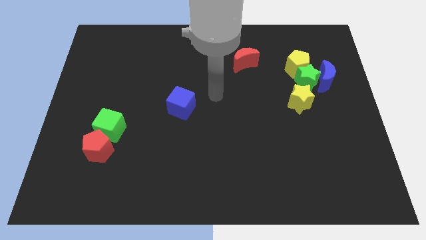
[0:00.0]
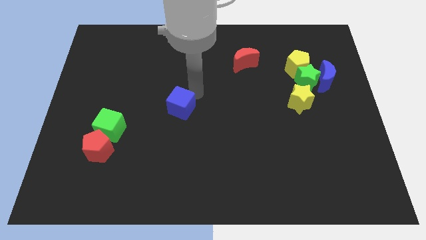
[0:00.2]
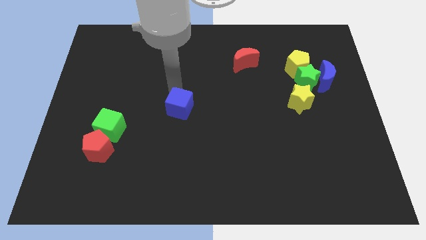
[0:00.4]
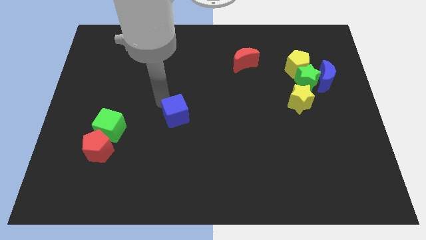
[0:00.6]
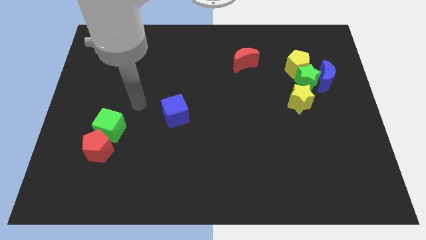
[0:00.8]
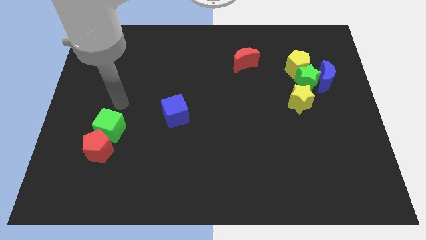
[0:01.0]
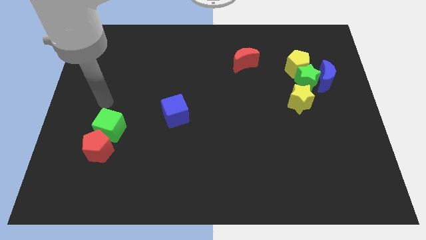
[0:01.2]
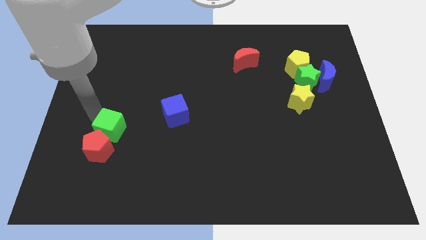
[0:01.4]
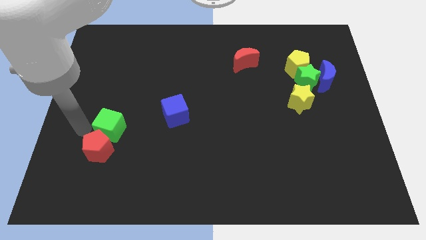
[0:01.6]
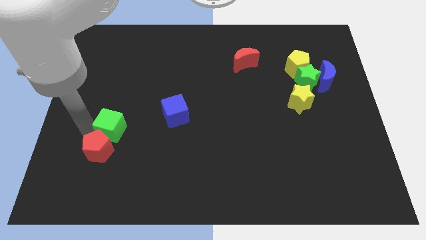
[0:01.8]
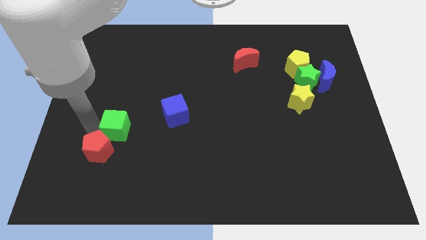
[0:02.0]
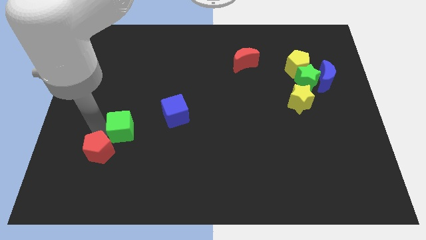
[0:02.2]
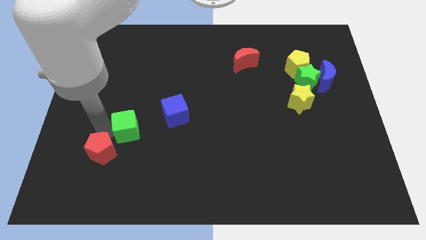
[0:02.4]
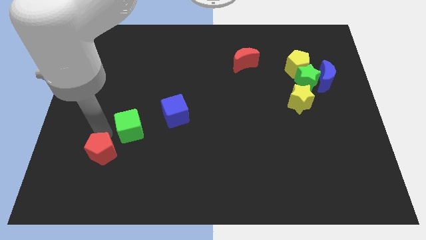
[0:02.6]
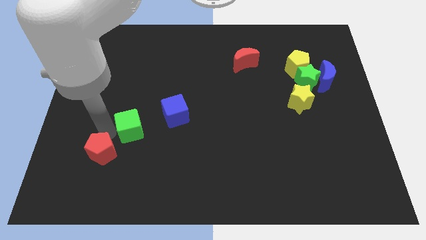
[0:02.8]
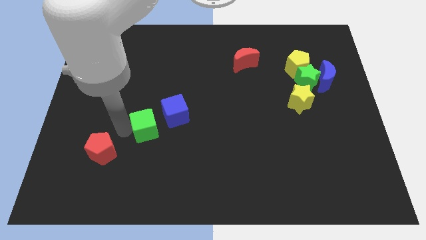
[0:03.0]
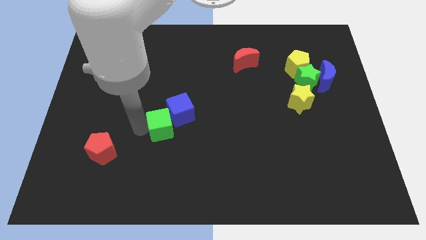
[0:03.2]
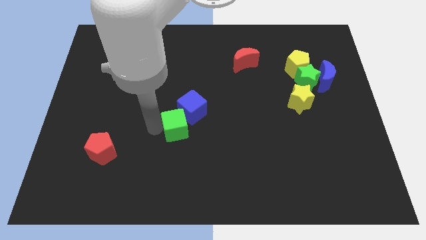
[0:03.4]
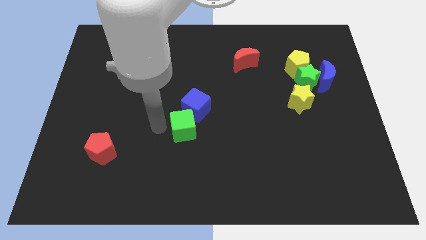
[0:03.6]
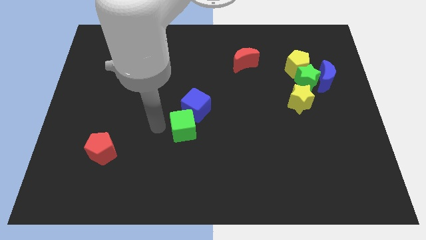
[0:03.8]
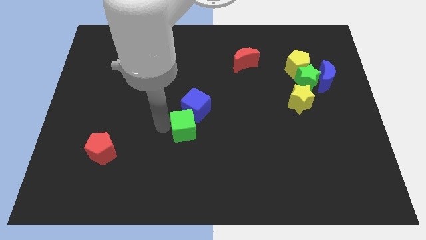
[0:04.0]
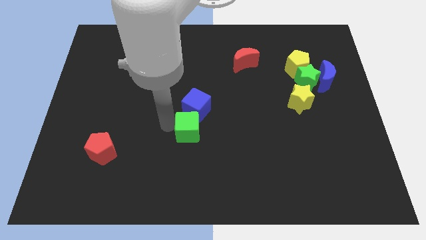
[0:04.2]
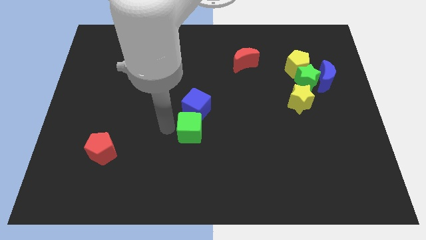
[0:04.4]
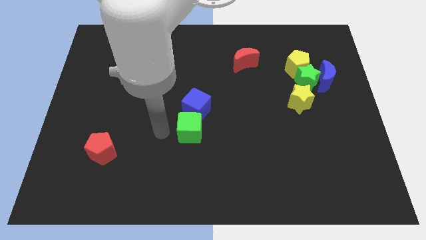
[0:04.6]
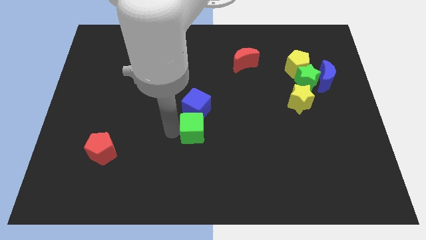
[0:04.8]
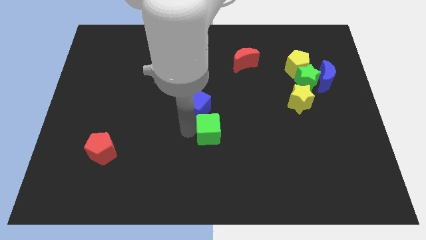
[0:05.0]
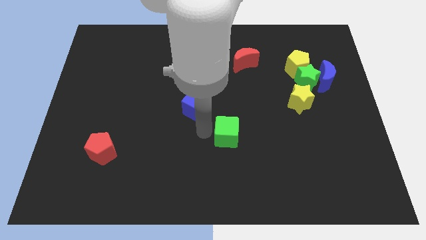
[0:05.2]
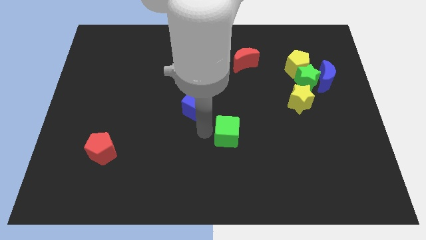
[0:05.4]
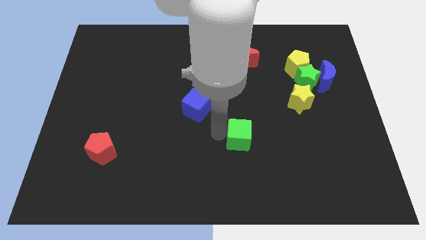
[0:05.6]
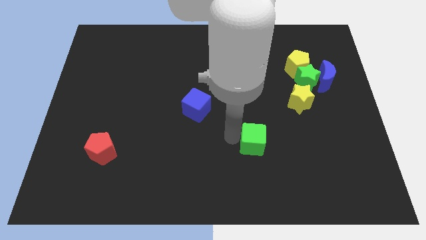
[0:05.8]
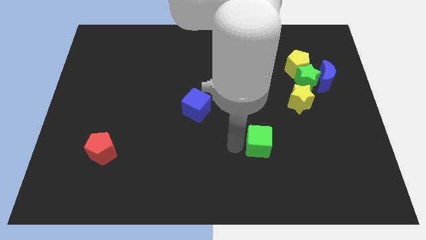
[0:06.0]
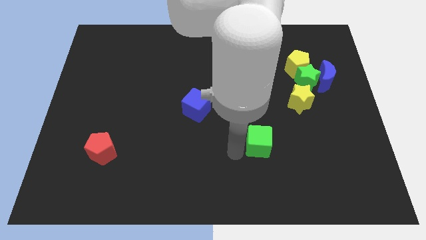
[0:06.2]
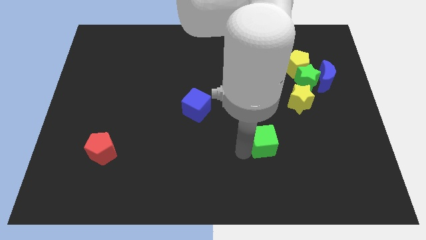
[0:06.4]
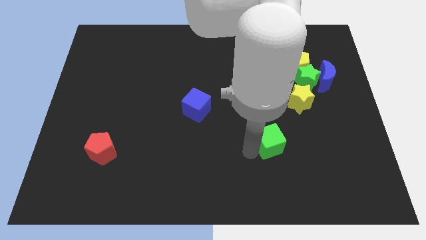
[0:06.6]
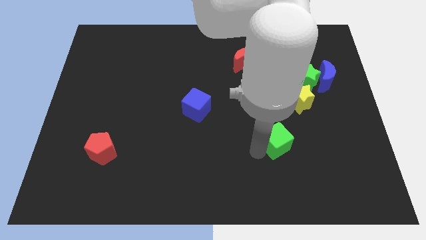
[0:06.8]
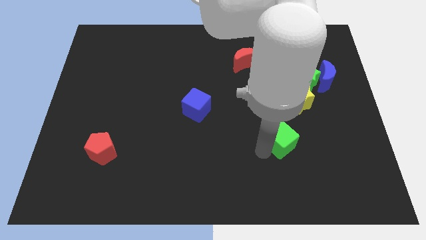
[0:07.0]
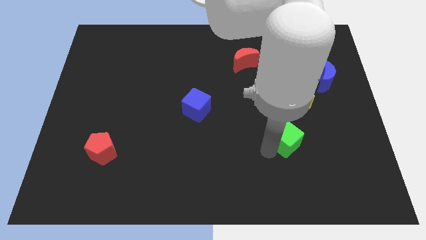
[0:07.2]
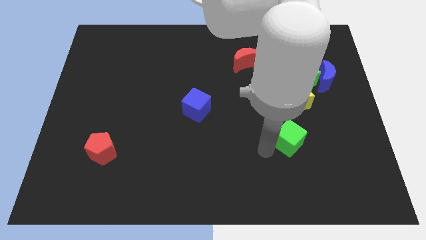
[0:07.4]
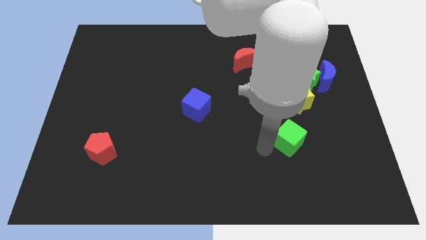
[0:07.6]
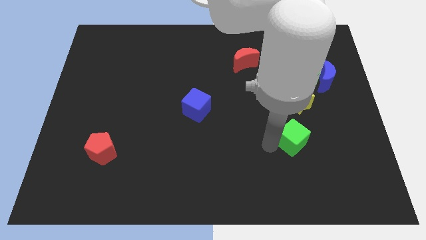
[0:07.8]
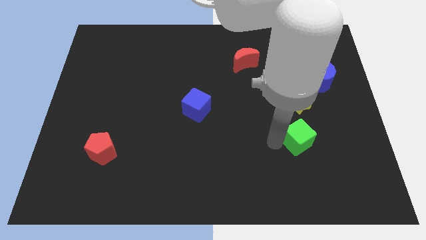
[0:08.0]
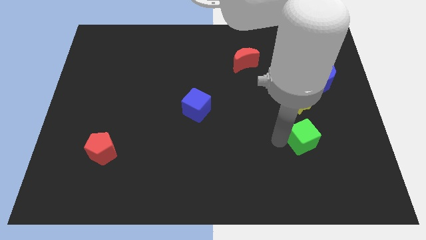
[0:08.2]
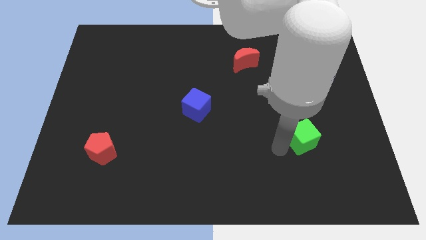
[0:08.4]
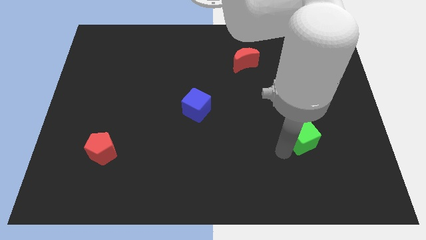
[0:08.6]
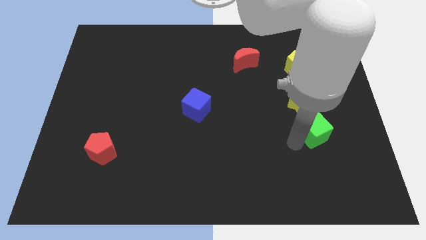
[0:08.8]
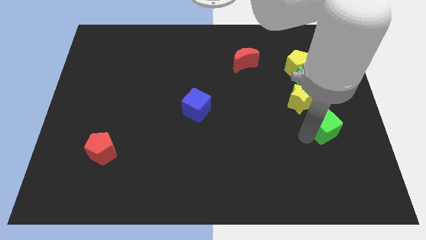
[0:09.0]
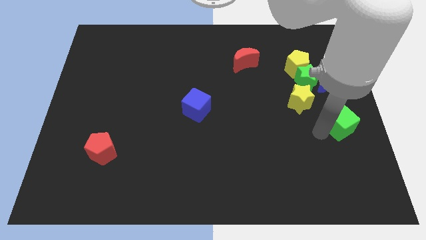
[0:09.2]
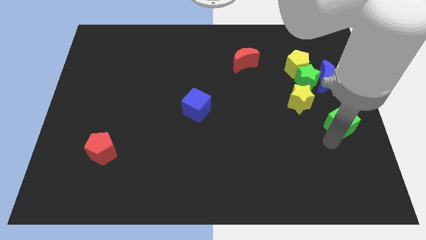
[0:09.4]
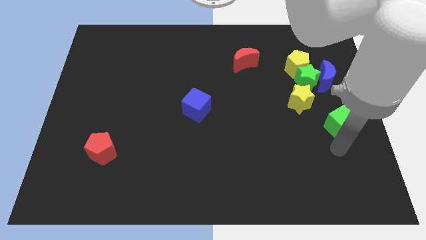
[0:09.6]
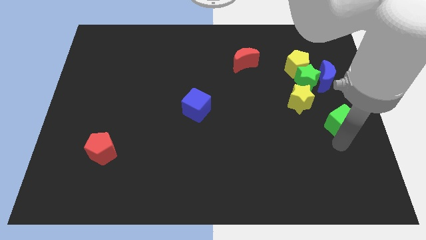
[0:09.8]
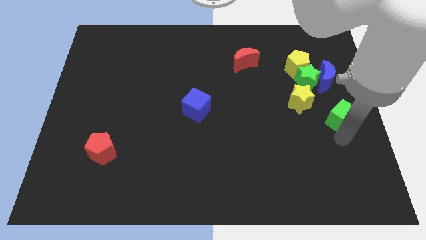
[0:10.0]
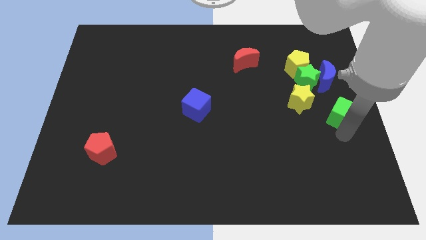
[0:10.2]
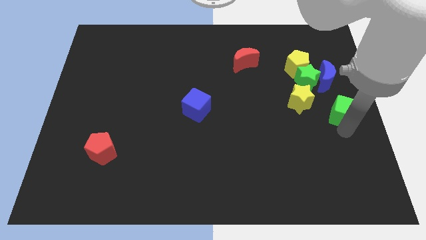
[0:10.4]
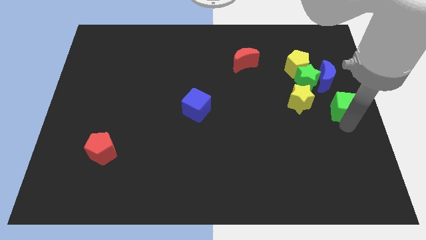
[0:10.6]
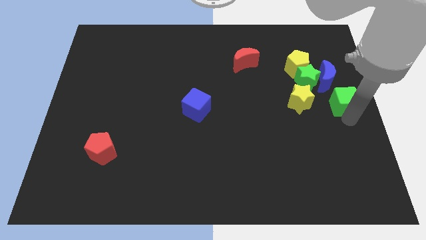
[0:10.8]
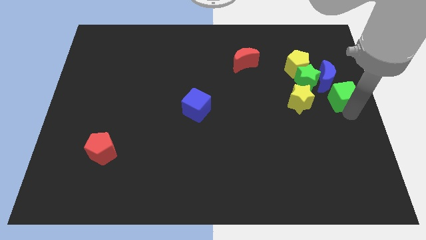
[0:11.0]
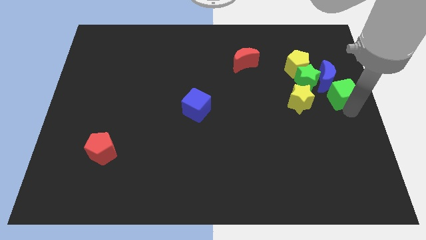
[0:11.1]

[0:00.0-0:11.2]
push the green cube to the blue moon

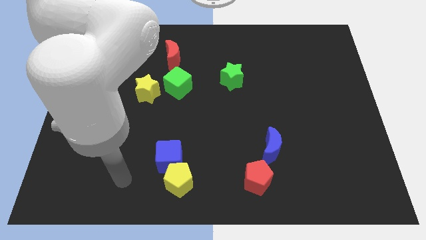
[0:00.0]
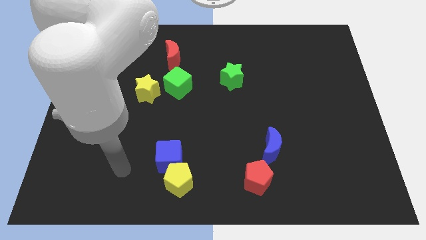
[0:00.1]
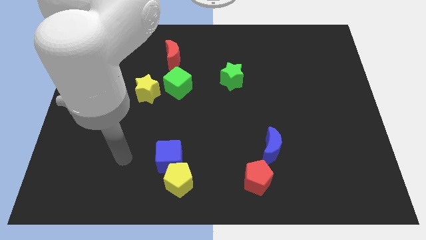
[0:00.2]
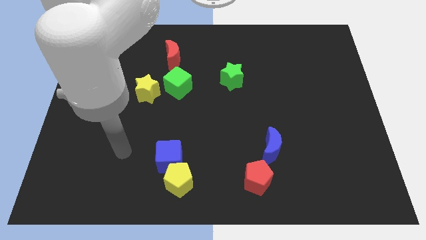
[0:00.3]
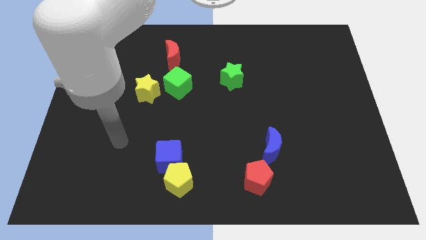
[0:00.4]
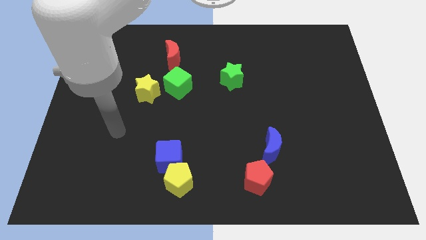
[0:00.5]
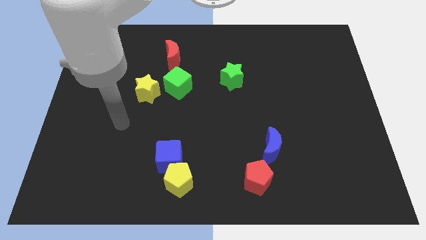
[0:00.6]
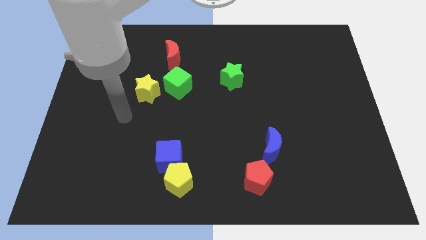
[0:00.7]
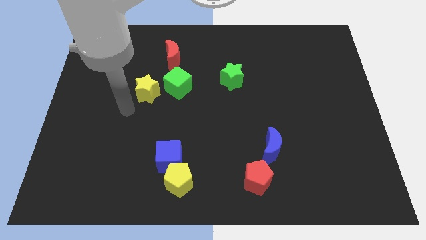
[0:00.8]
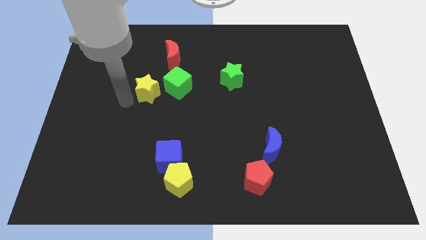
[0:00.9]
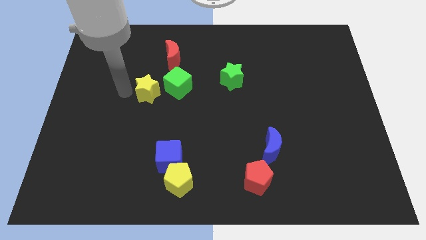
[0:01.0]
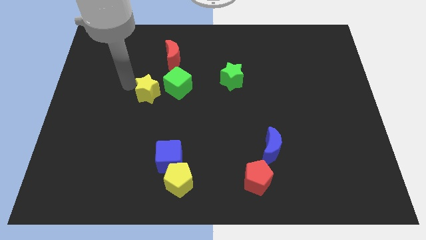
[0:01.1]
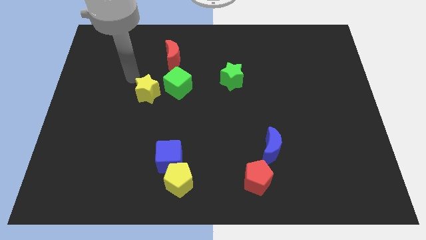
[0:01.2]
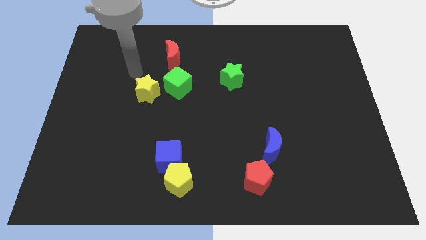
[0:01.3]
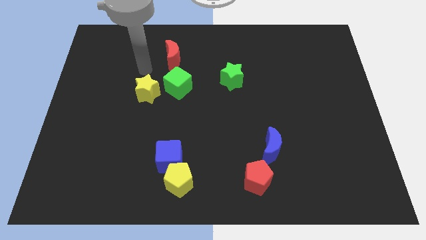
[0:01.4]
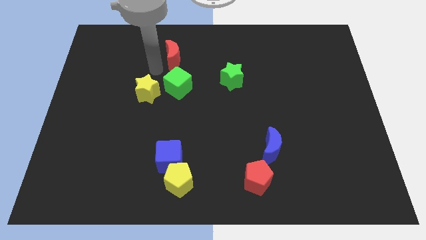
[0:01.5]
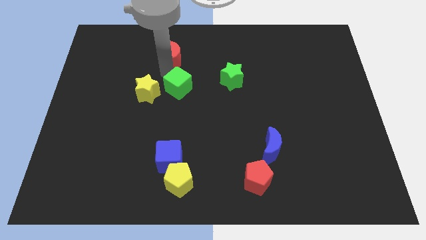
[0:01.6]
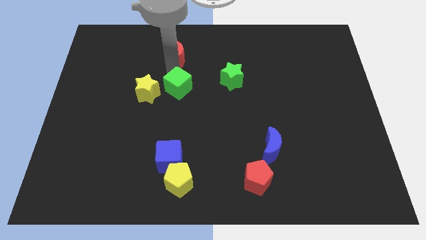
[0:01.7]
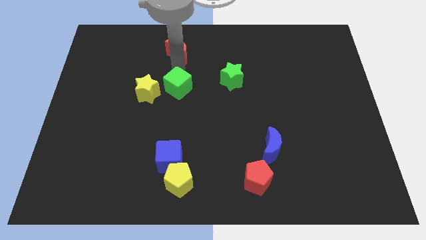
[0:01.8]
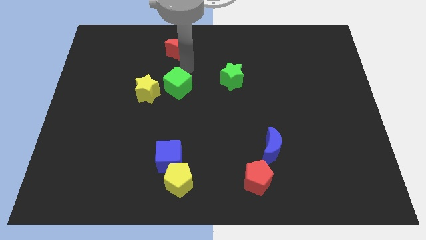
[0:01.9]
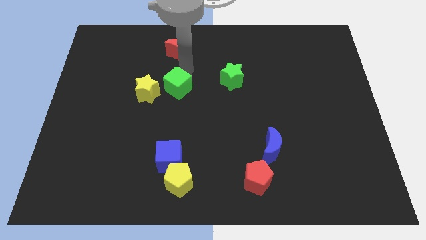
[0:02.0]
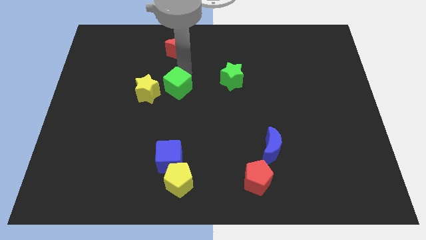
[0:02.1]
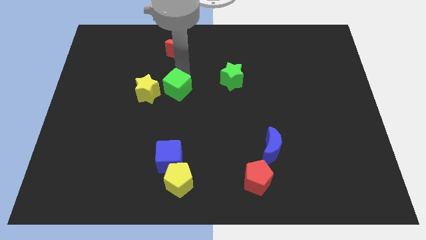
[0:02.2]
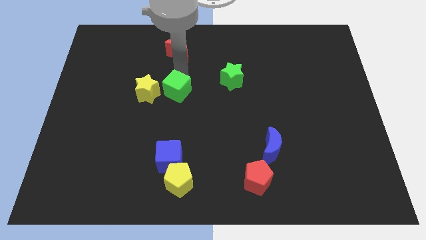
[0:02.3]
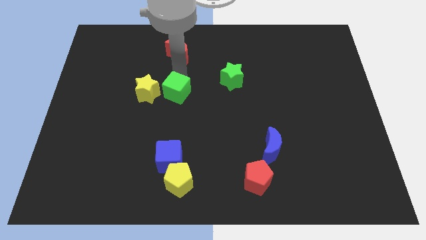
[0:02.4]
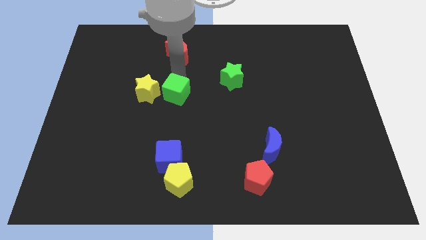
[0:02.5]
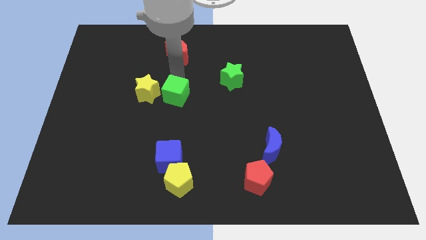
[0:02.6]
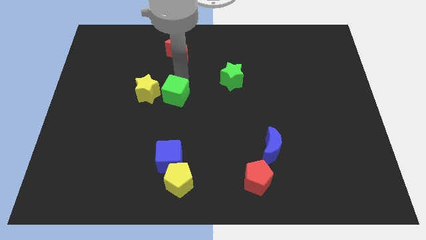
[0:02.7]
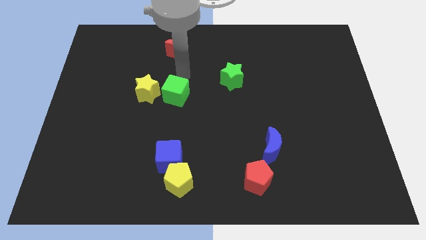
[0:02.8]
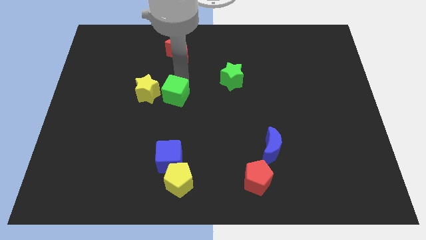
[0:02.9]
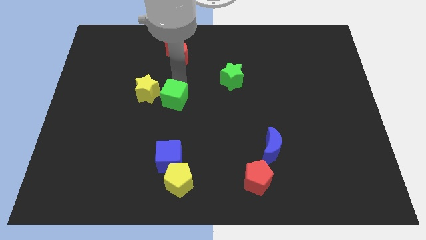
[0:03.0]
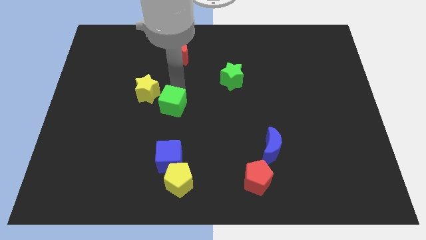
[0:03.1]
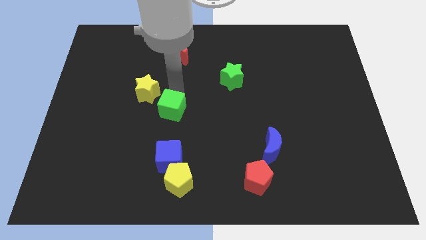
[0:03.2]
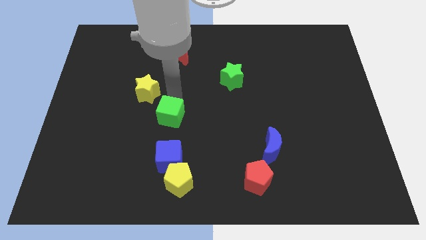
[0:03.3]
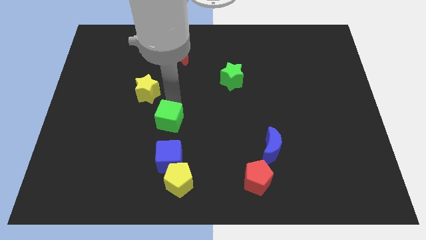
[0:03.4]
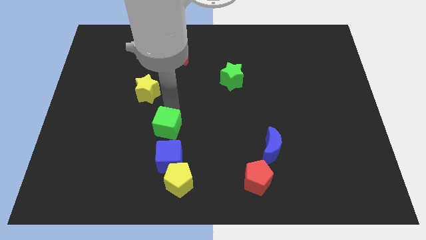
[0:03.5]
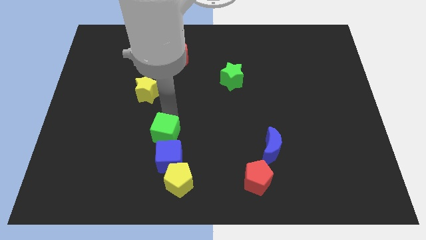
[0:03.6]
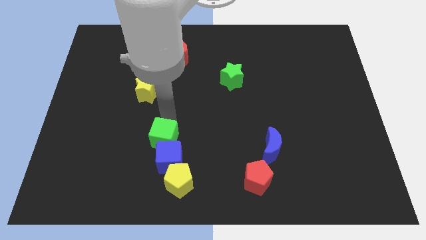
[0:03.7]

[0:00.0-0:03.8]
slide the green cube towards the blue cube
